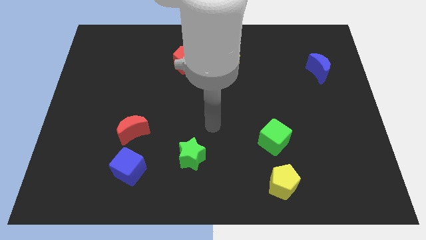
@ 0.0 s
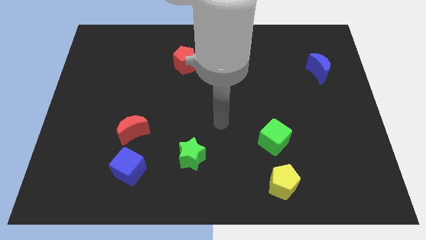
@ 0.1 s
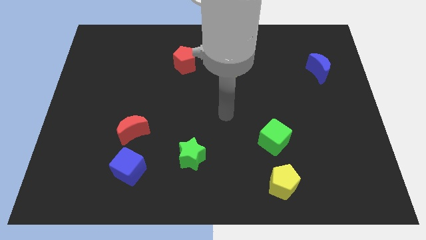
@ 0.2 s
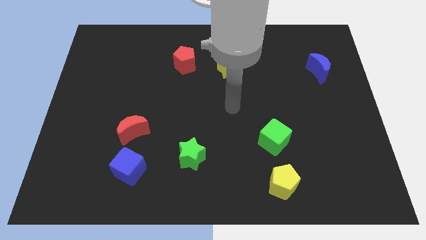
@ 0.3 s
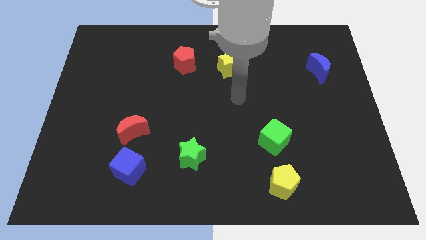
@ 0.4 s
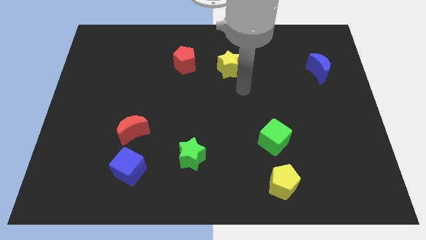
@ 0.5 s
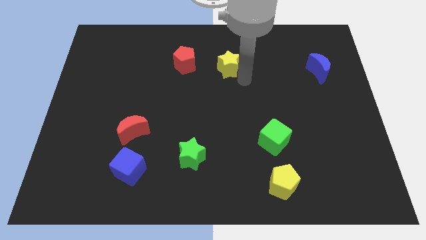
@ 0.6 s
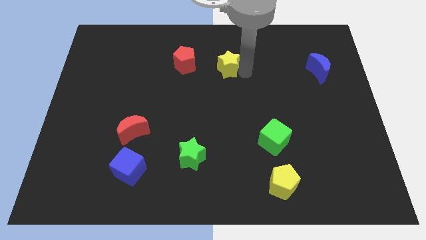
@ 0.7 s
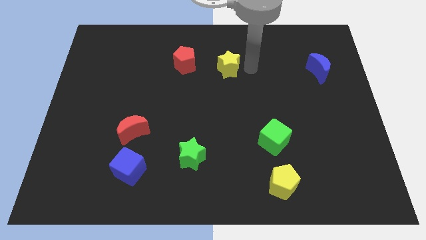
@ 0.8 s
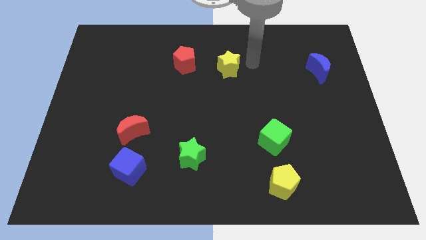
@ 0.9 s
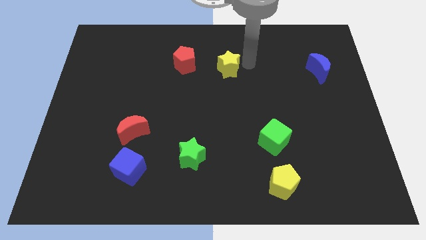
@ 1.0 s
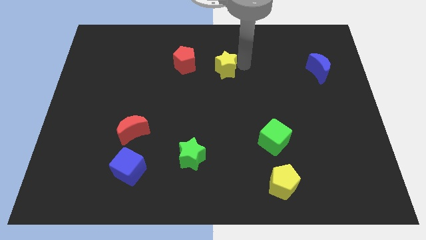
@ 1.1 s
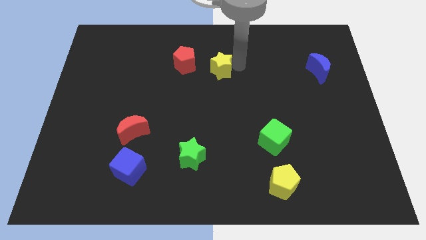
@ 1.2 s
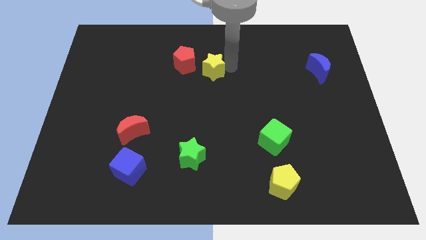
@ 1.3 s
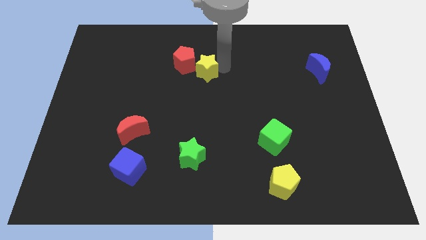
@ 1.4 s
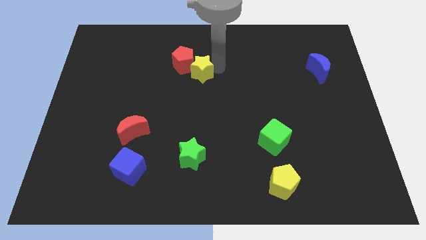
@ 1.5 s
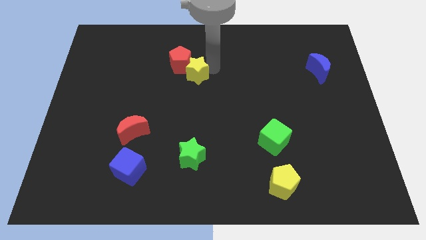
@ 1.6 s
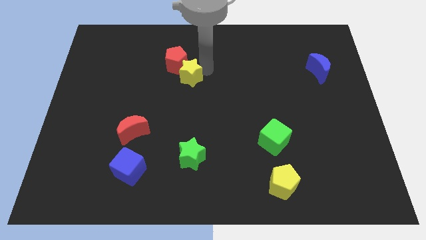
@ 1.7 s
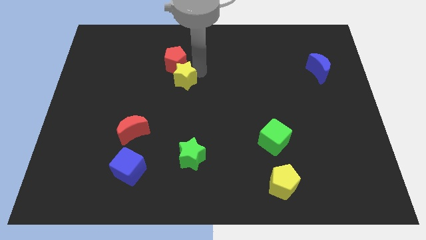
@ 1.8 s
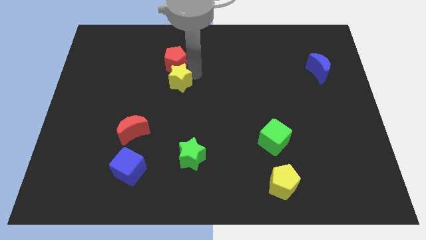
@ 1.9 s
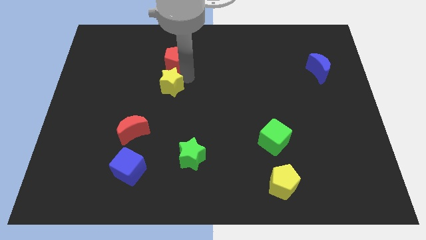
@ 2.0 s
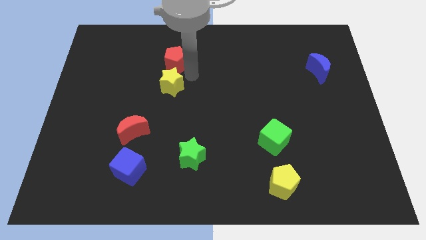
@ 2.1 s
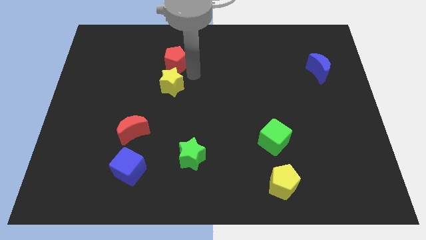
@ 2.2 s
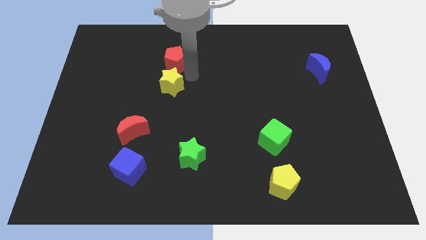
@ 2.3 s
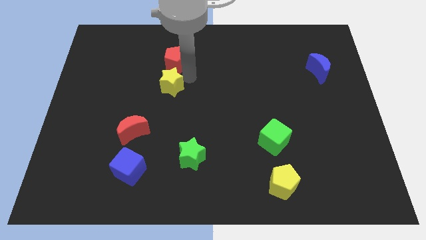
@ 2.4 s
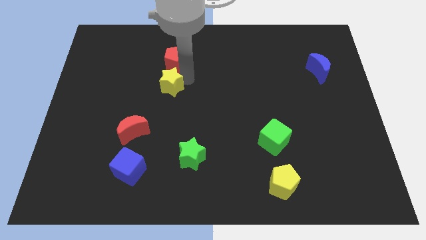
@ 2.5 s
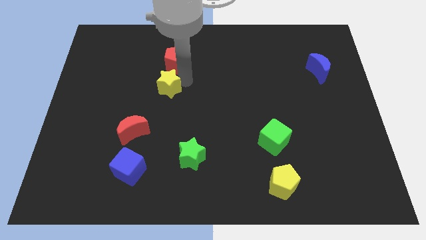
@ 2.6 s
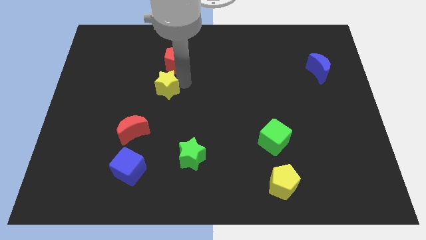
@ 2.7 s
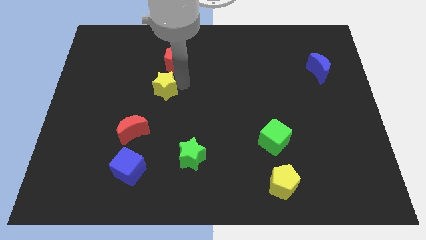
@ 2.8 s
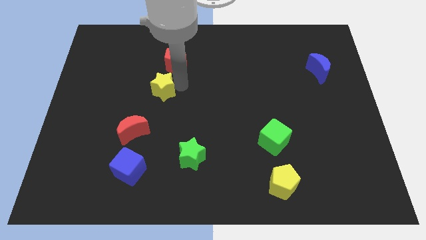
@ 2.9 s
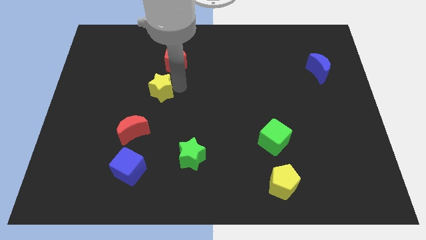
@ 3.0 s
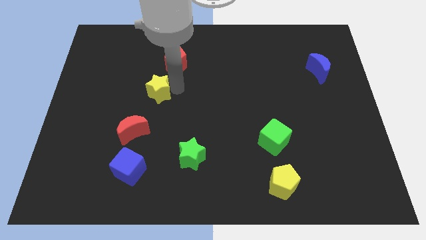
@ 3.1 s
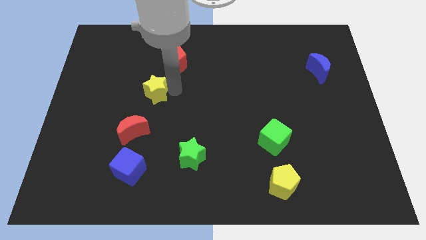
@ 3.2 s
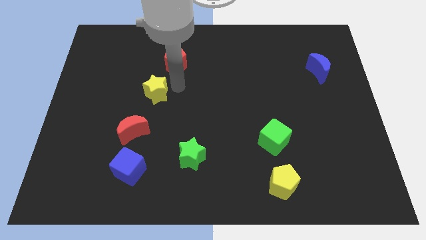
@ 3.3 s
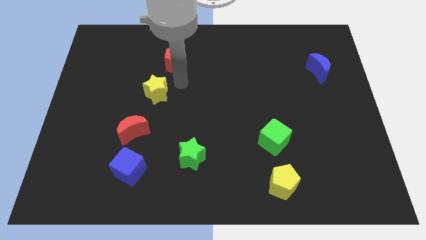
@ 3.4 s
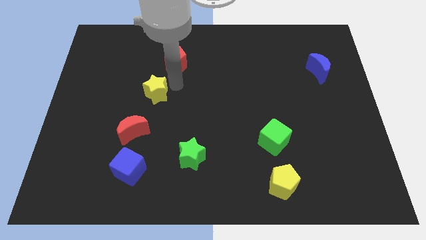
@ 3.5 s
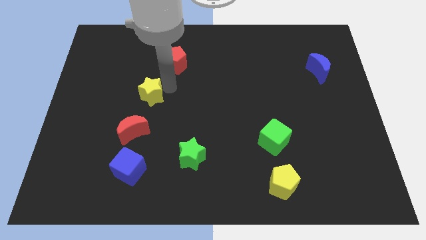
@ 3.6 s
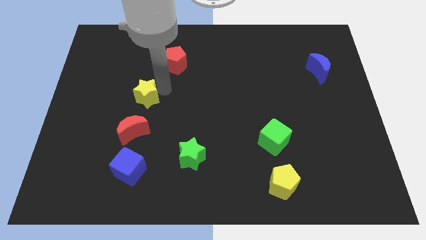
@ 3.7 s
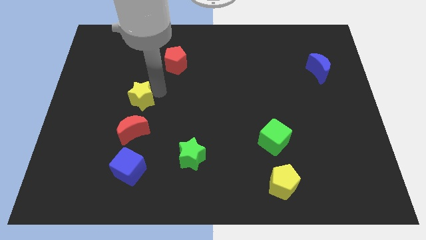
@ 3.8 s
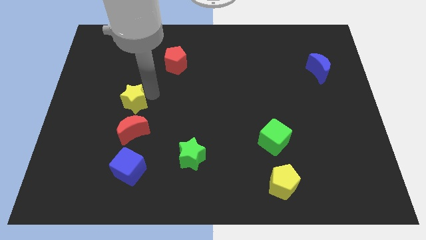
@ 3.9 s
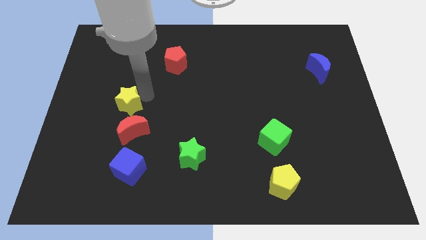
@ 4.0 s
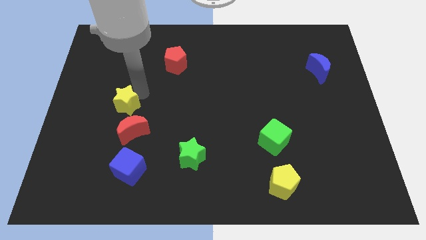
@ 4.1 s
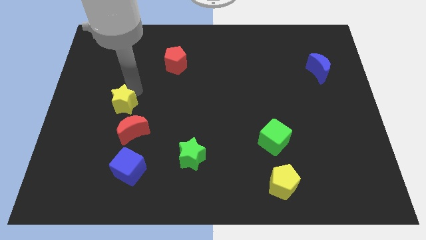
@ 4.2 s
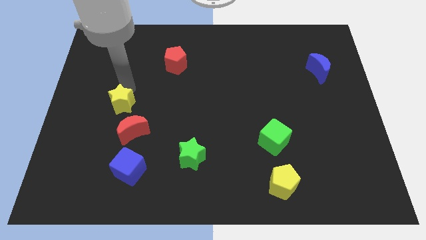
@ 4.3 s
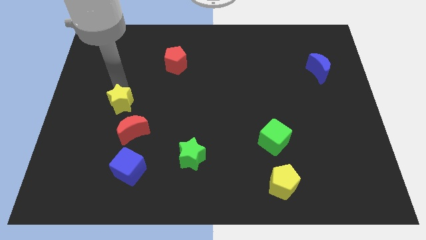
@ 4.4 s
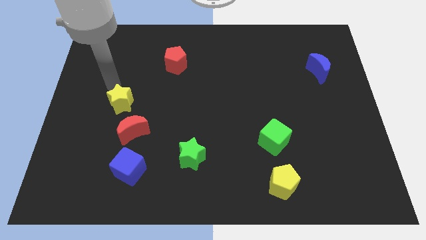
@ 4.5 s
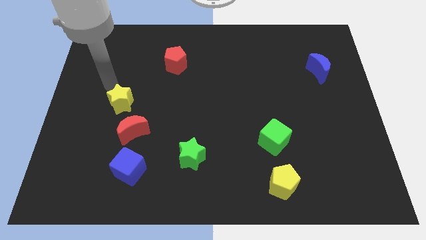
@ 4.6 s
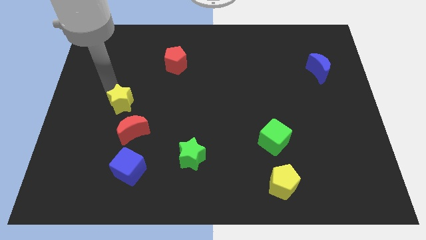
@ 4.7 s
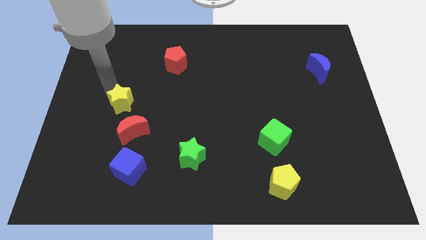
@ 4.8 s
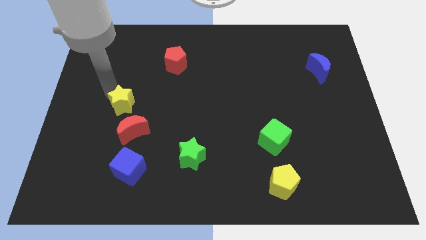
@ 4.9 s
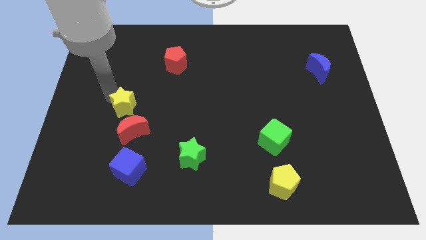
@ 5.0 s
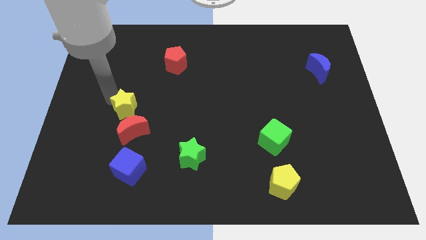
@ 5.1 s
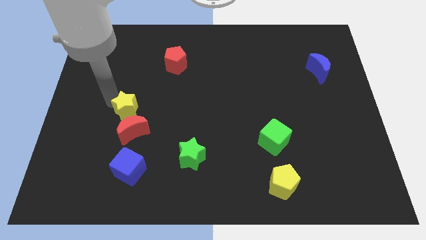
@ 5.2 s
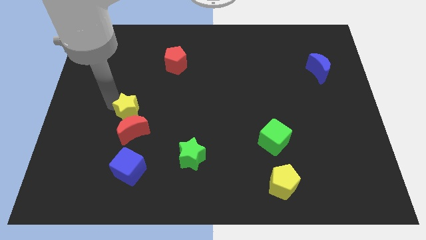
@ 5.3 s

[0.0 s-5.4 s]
move the yellow star to the top of the blue cube

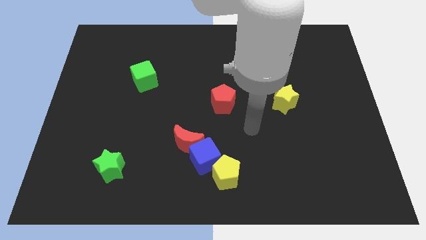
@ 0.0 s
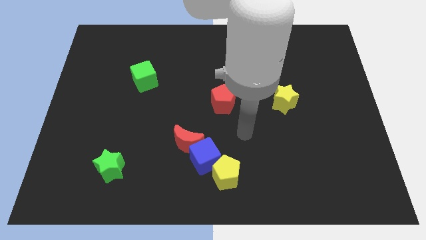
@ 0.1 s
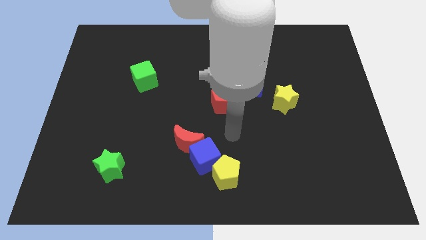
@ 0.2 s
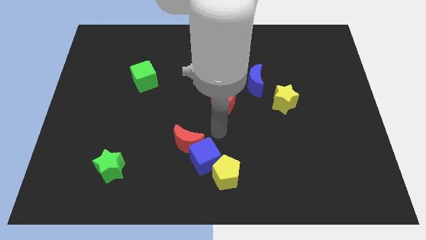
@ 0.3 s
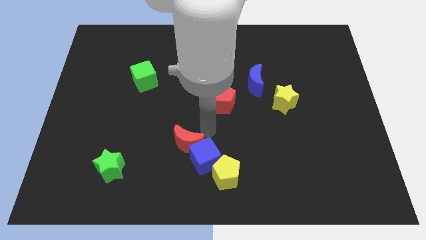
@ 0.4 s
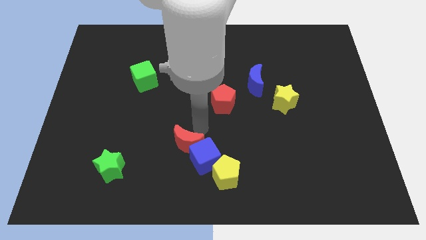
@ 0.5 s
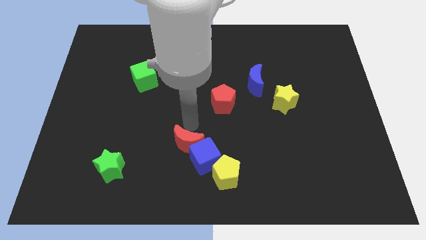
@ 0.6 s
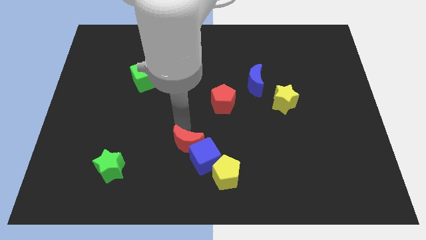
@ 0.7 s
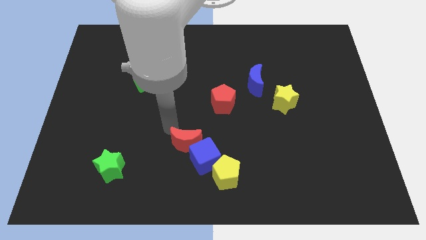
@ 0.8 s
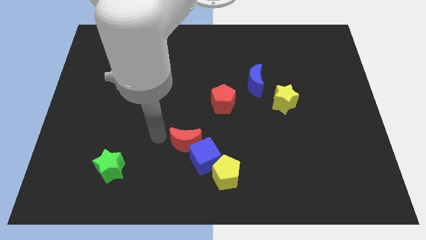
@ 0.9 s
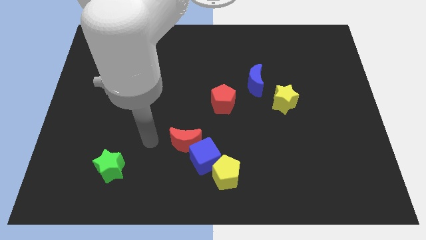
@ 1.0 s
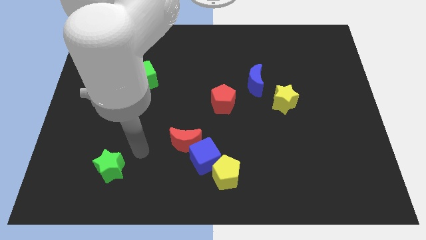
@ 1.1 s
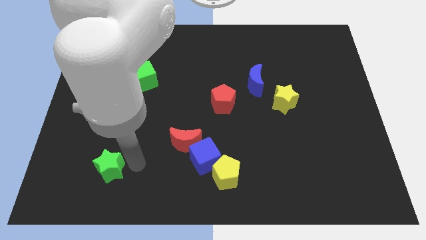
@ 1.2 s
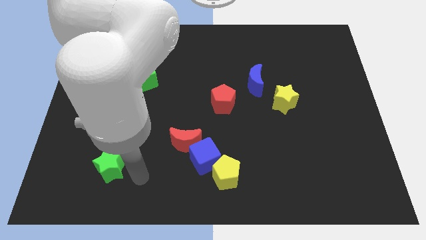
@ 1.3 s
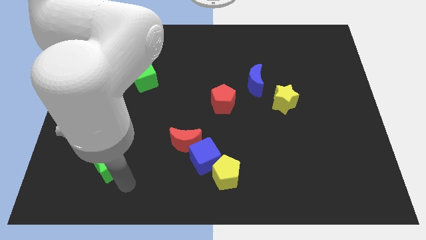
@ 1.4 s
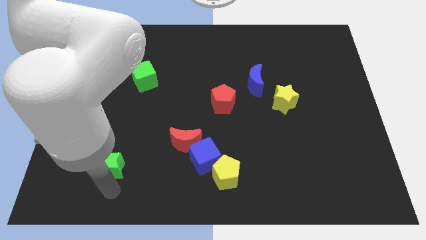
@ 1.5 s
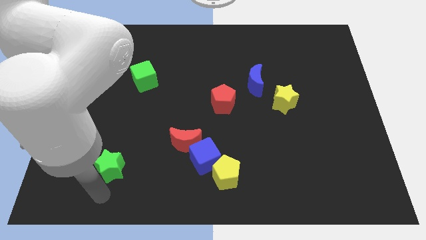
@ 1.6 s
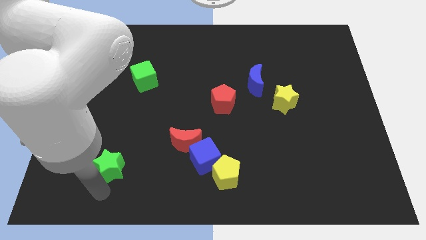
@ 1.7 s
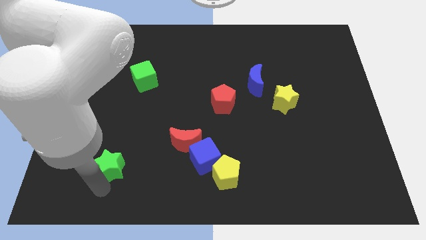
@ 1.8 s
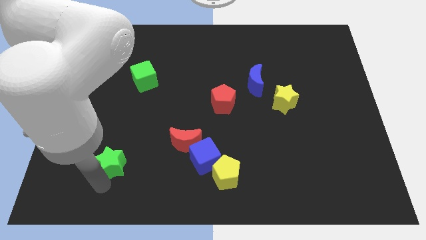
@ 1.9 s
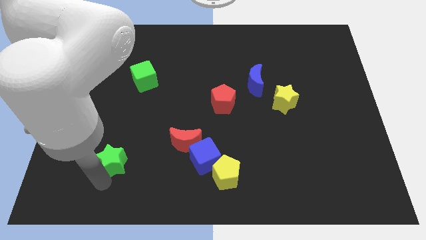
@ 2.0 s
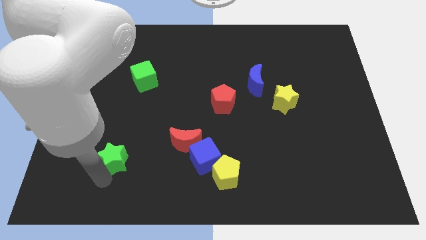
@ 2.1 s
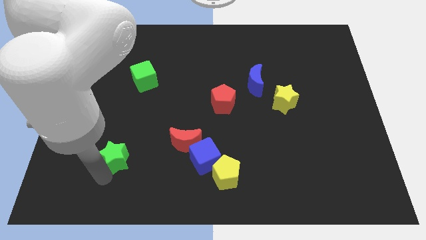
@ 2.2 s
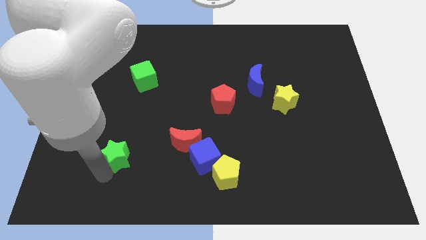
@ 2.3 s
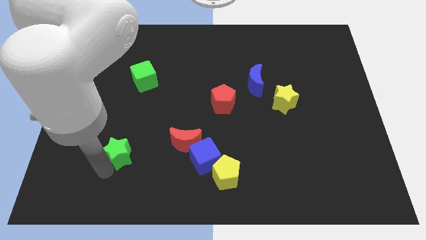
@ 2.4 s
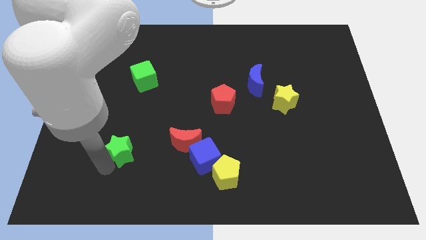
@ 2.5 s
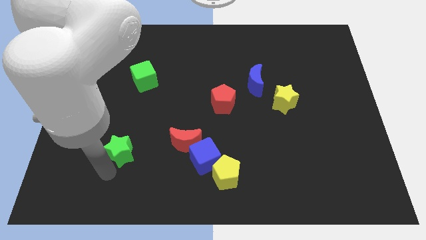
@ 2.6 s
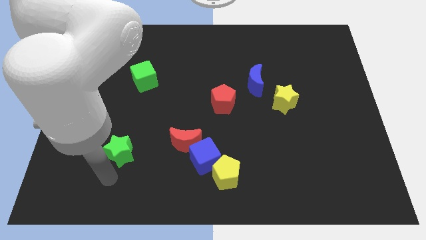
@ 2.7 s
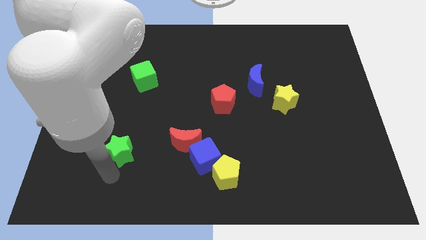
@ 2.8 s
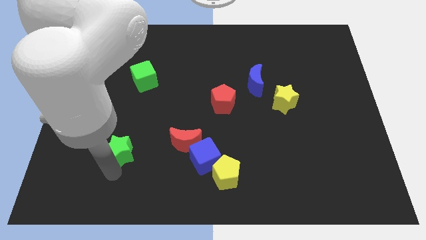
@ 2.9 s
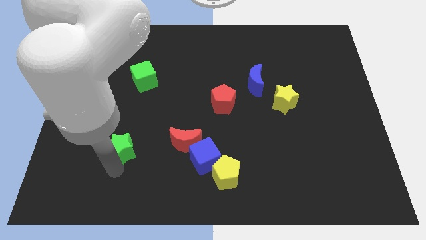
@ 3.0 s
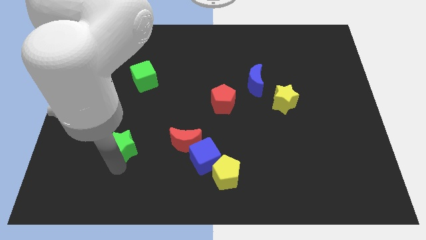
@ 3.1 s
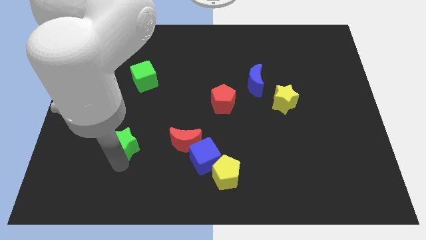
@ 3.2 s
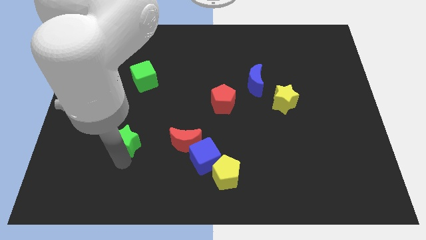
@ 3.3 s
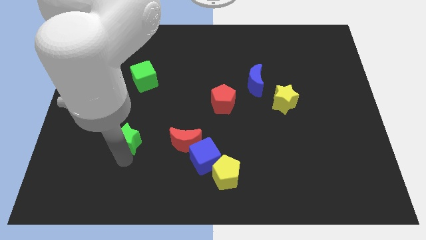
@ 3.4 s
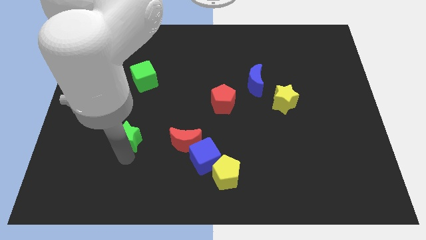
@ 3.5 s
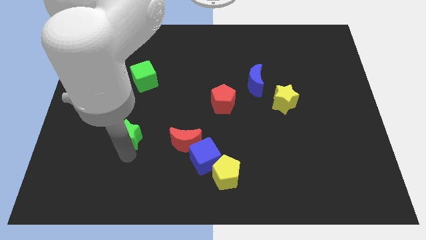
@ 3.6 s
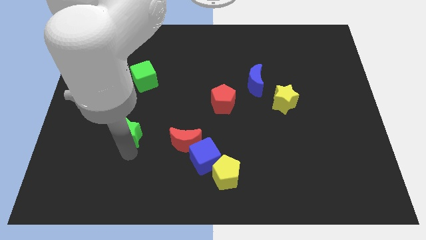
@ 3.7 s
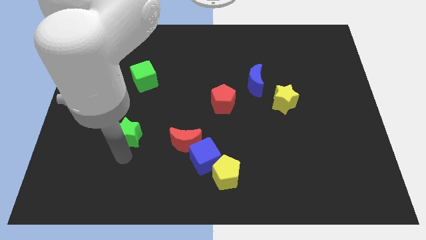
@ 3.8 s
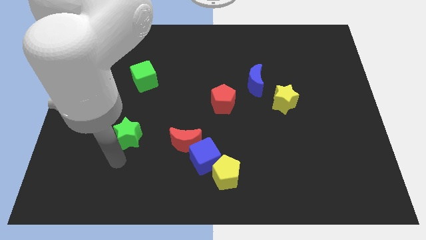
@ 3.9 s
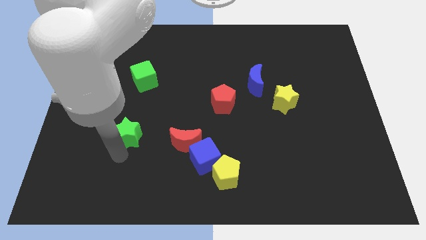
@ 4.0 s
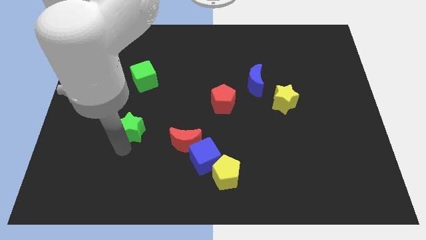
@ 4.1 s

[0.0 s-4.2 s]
push the green star to the bottom of the green cube
